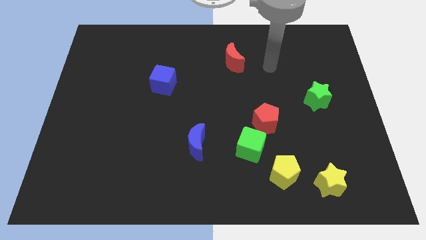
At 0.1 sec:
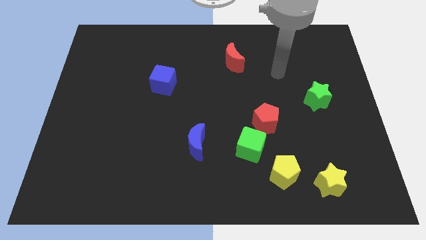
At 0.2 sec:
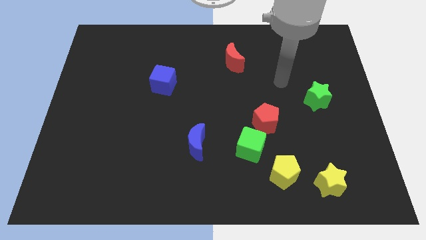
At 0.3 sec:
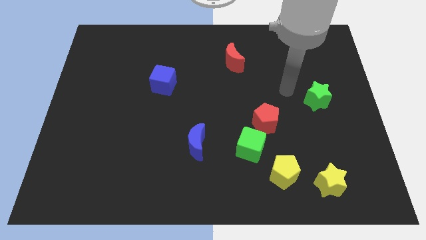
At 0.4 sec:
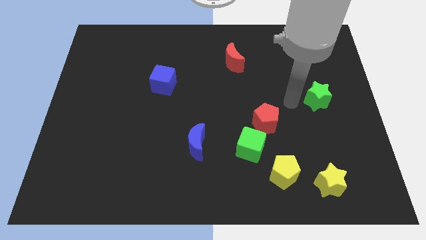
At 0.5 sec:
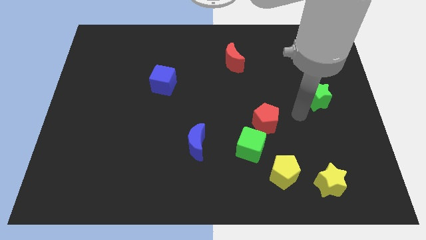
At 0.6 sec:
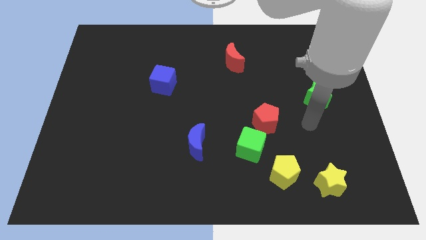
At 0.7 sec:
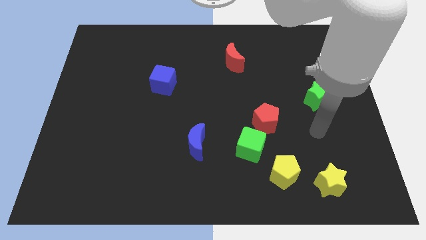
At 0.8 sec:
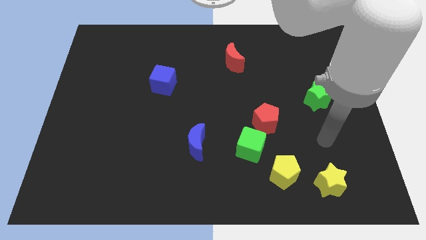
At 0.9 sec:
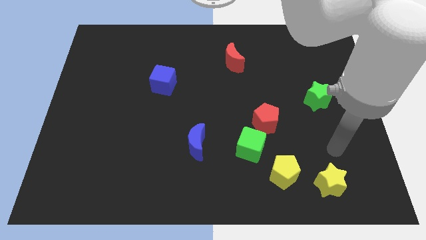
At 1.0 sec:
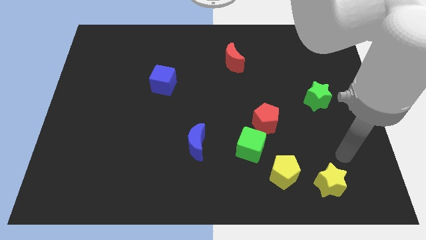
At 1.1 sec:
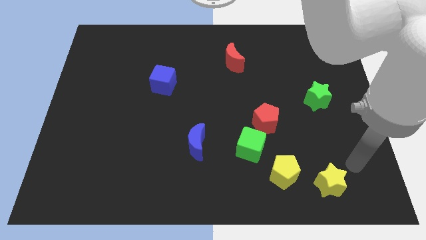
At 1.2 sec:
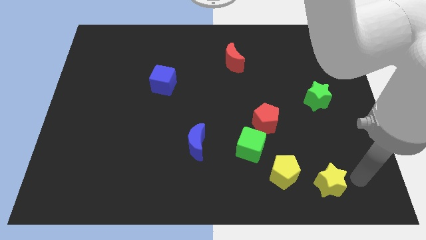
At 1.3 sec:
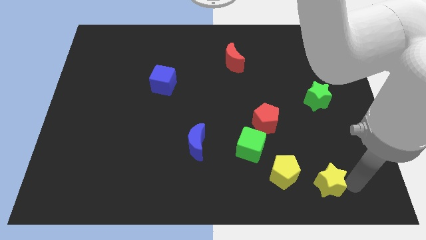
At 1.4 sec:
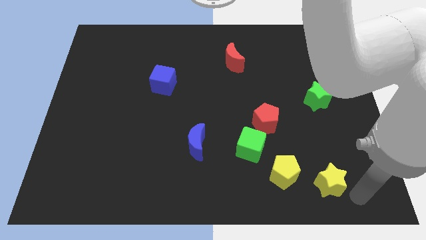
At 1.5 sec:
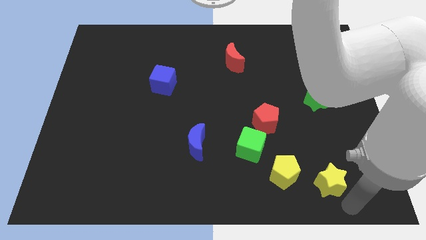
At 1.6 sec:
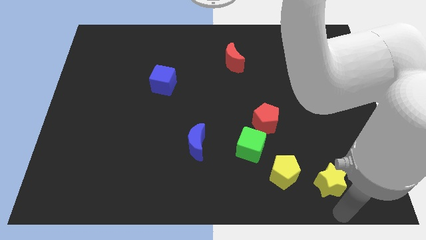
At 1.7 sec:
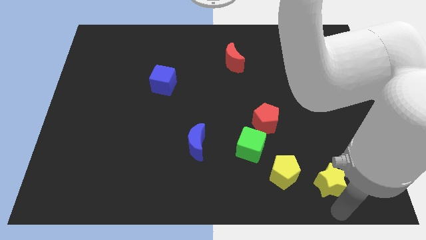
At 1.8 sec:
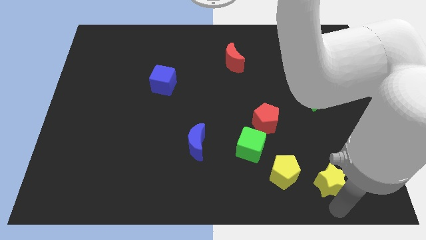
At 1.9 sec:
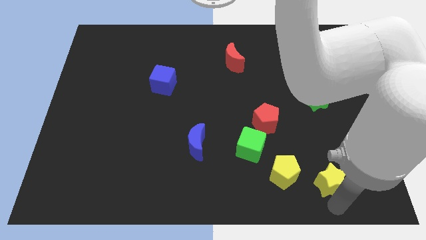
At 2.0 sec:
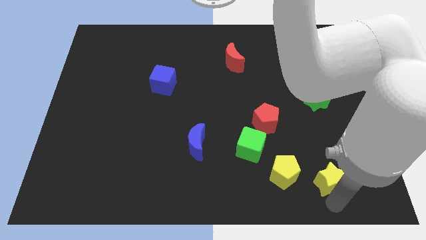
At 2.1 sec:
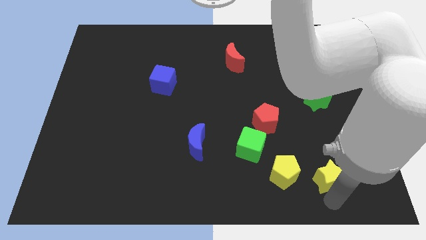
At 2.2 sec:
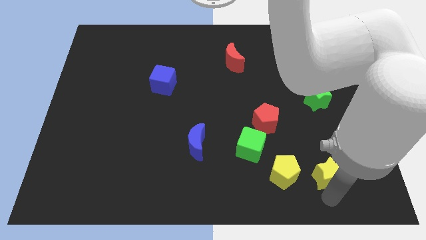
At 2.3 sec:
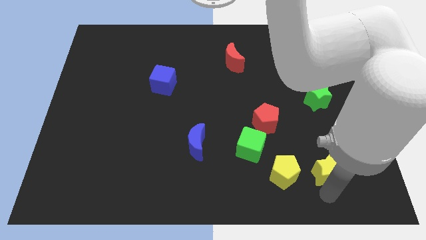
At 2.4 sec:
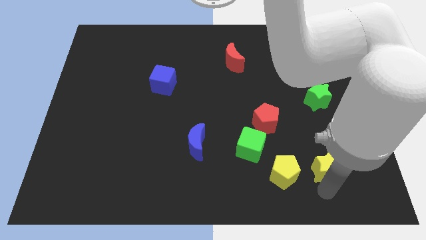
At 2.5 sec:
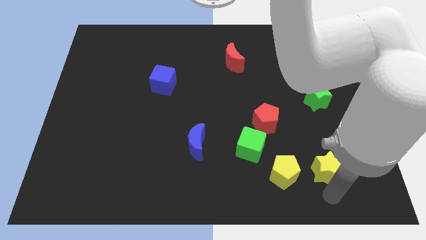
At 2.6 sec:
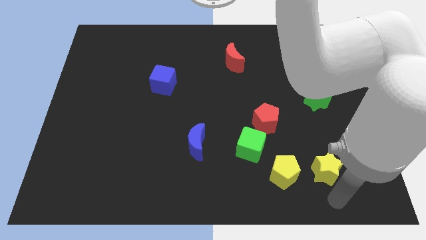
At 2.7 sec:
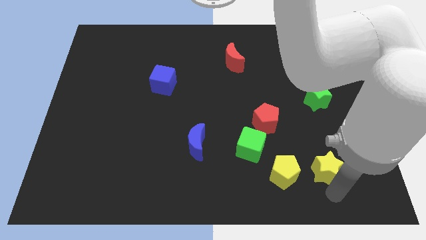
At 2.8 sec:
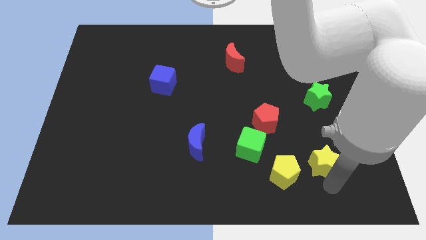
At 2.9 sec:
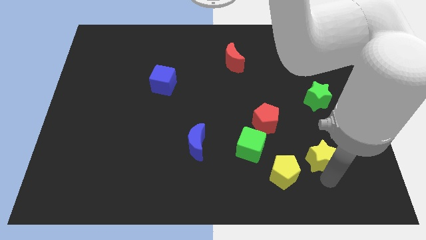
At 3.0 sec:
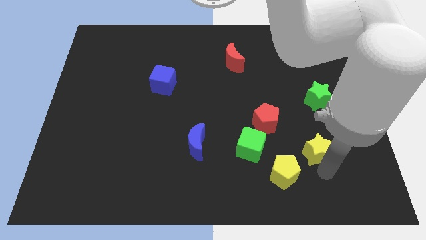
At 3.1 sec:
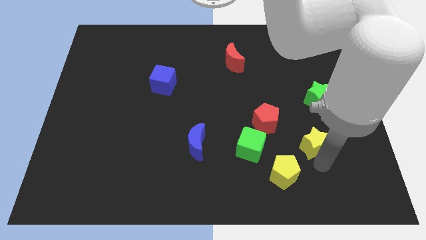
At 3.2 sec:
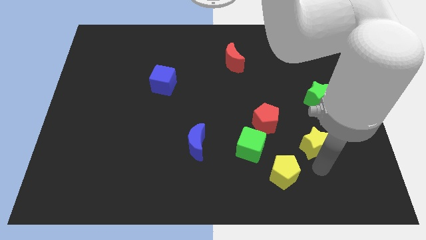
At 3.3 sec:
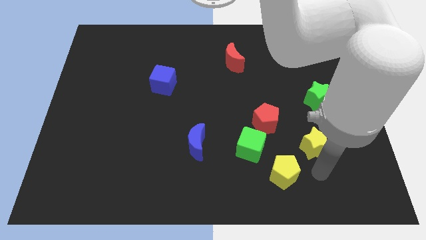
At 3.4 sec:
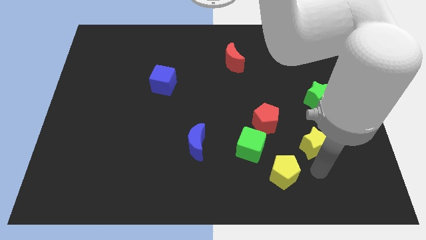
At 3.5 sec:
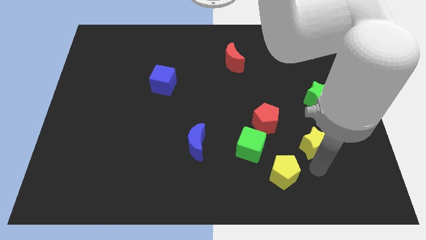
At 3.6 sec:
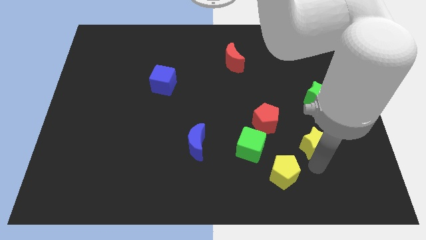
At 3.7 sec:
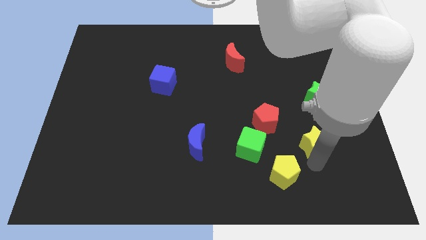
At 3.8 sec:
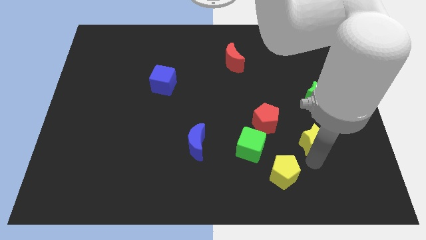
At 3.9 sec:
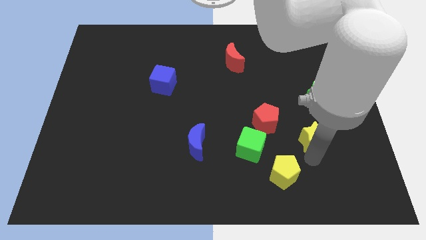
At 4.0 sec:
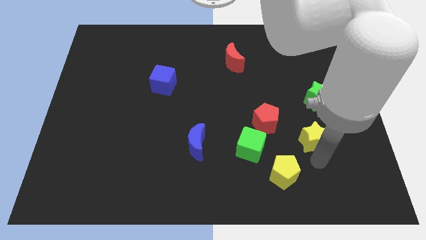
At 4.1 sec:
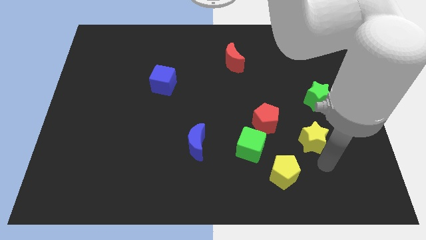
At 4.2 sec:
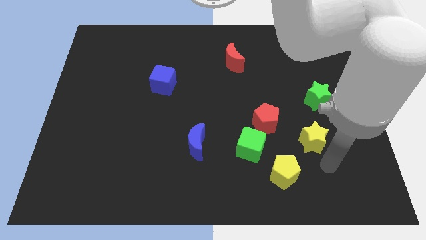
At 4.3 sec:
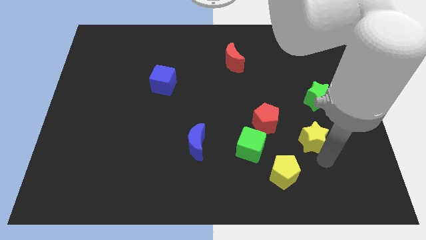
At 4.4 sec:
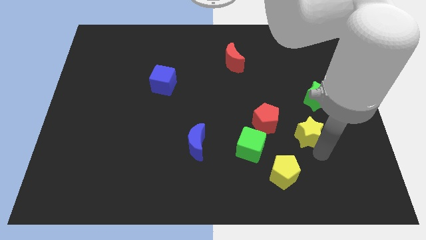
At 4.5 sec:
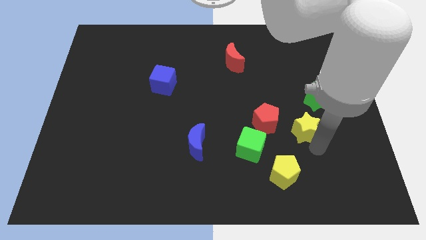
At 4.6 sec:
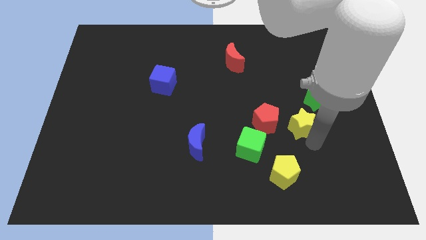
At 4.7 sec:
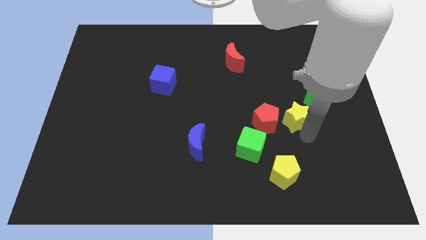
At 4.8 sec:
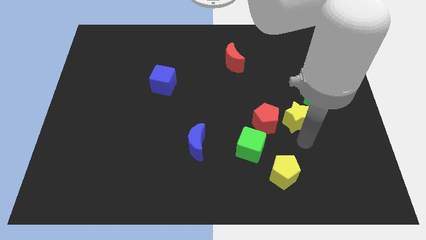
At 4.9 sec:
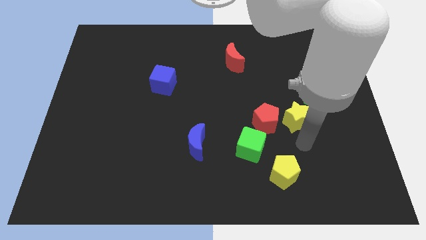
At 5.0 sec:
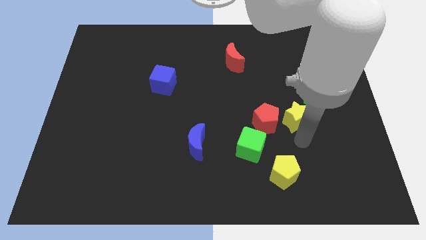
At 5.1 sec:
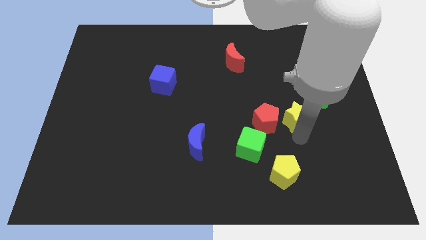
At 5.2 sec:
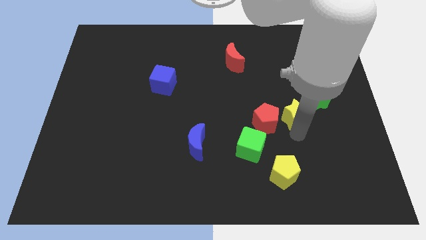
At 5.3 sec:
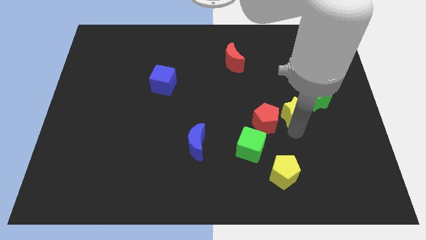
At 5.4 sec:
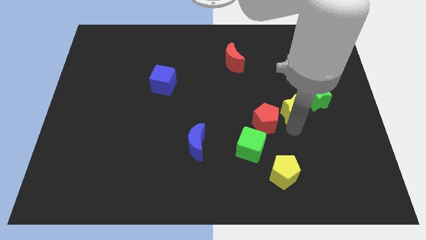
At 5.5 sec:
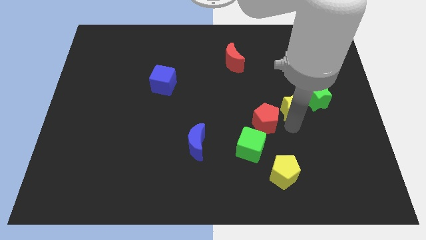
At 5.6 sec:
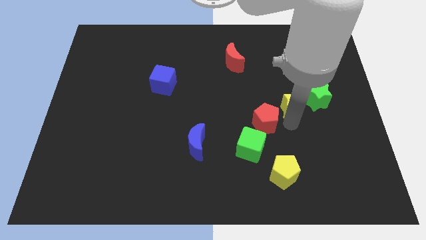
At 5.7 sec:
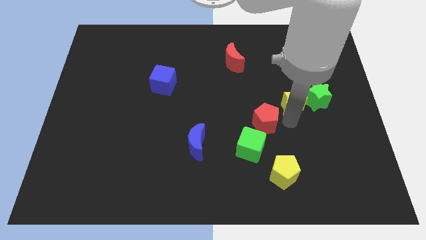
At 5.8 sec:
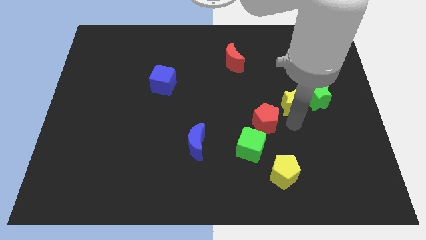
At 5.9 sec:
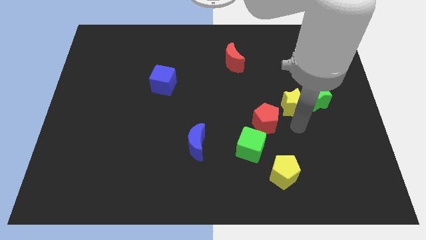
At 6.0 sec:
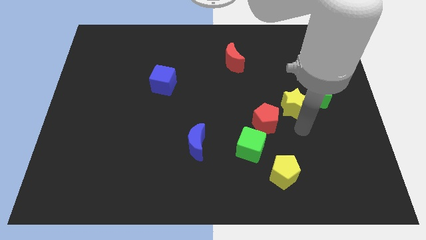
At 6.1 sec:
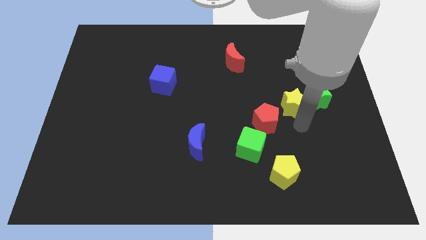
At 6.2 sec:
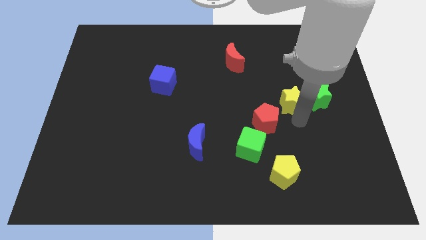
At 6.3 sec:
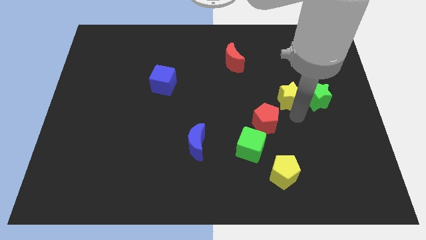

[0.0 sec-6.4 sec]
push the yellow star upwards

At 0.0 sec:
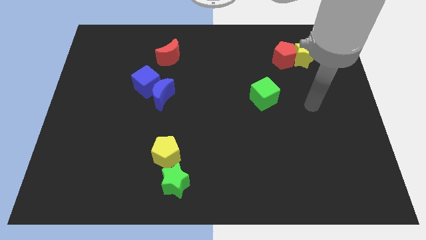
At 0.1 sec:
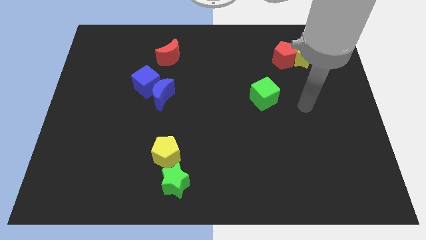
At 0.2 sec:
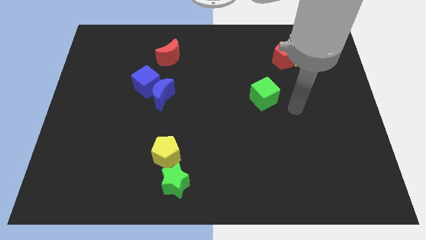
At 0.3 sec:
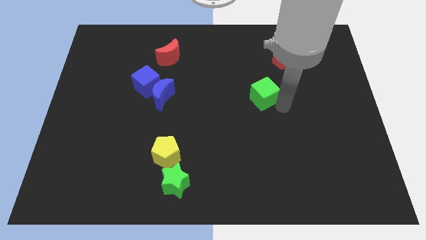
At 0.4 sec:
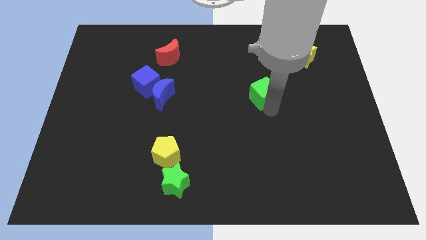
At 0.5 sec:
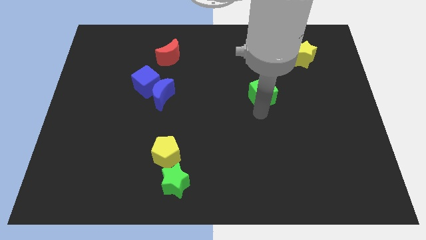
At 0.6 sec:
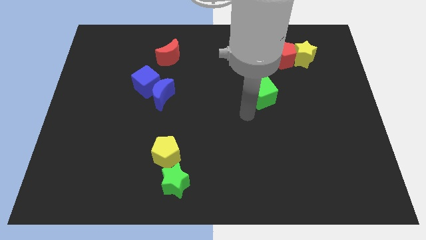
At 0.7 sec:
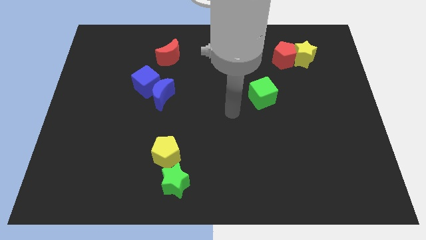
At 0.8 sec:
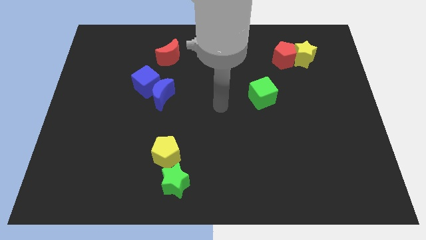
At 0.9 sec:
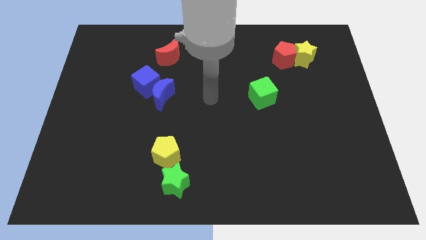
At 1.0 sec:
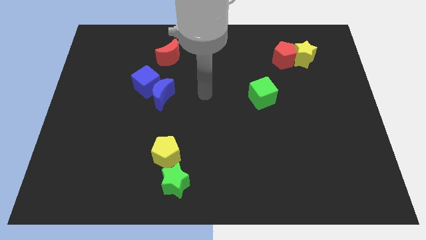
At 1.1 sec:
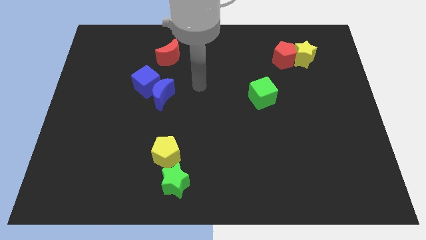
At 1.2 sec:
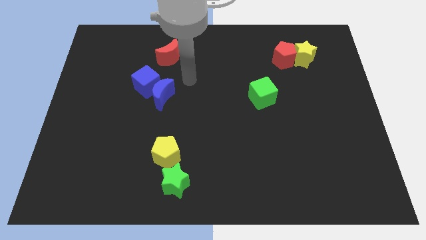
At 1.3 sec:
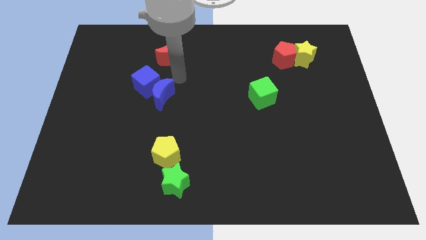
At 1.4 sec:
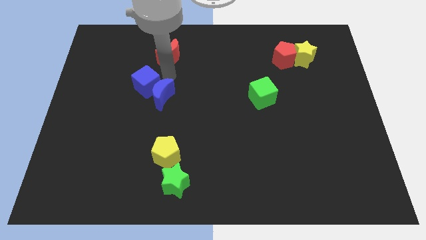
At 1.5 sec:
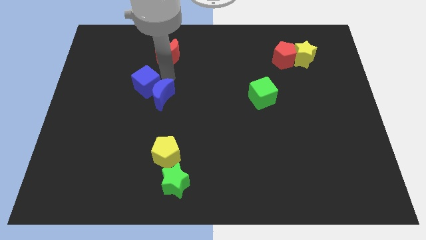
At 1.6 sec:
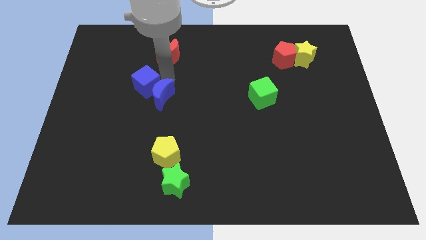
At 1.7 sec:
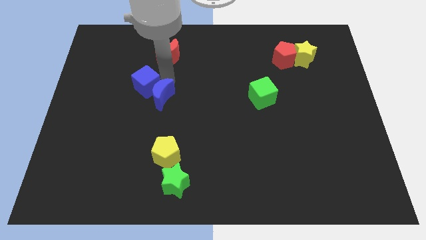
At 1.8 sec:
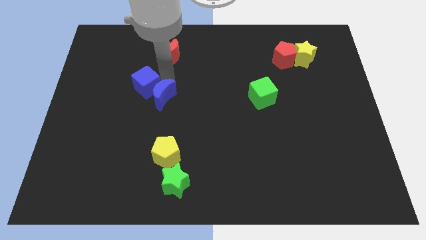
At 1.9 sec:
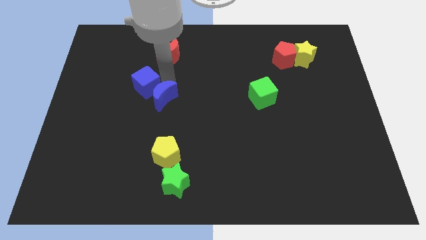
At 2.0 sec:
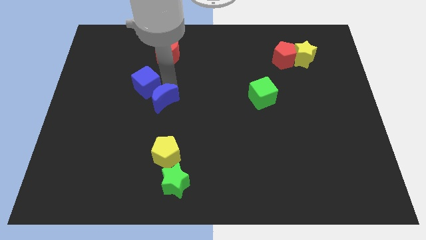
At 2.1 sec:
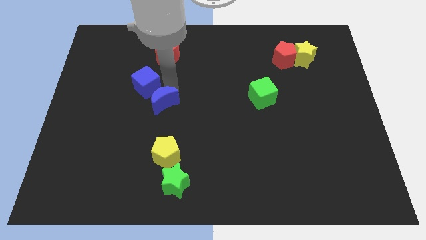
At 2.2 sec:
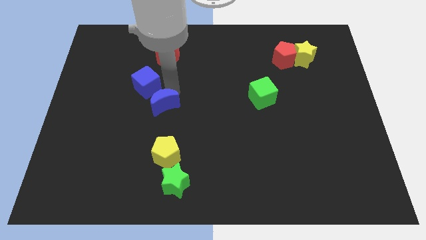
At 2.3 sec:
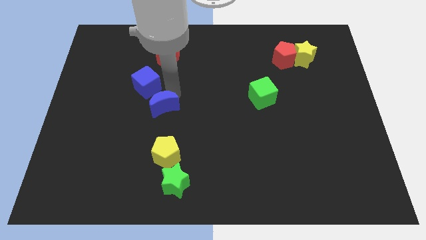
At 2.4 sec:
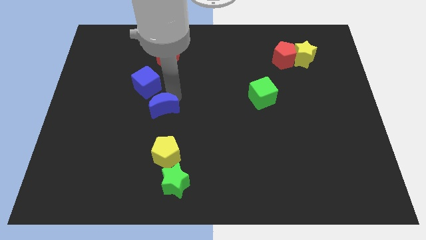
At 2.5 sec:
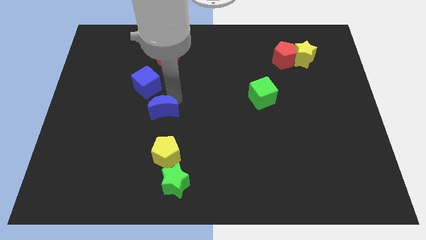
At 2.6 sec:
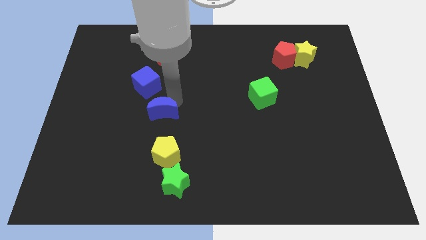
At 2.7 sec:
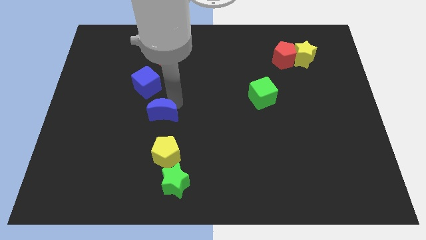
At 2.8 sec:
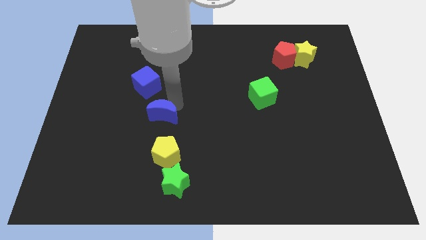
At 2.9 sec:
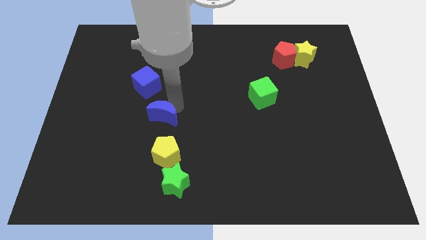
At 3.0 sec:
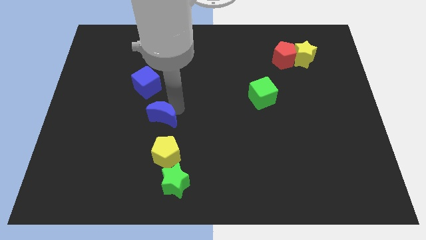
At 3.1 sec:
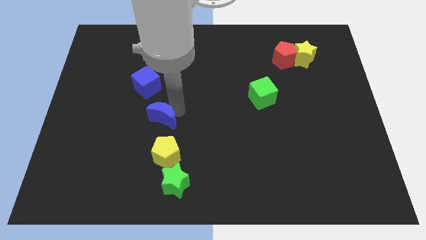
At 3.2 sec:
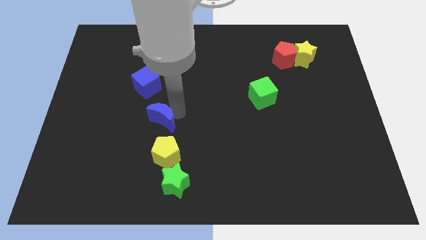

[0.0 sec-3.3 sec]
slightly slide the blue moon downwards
